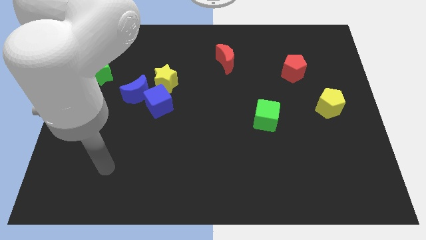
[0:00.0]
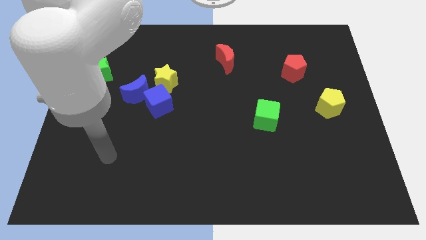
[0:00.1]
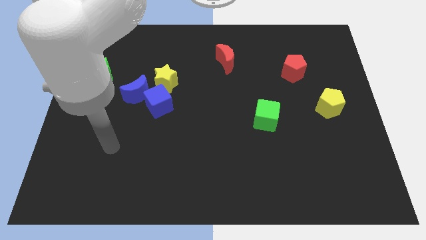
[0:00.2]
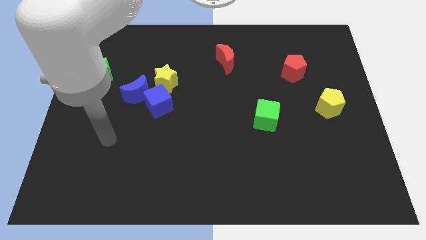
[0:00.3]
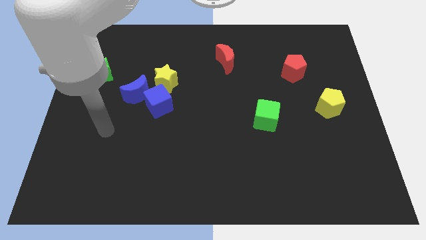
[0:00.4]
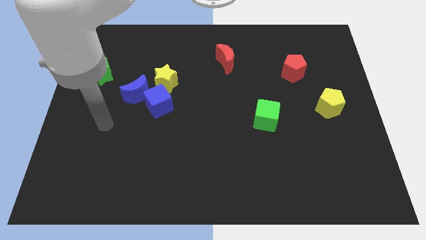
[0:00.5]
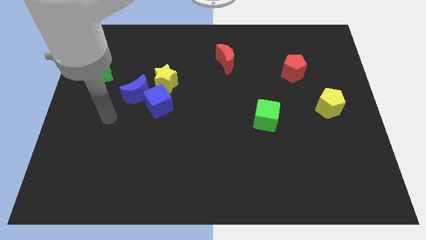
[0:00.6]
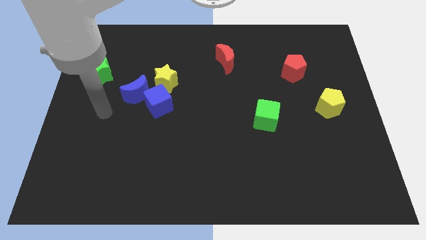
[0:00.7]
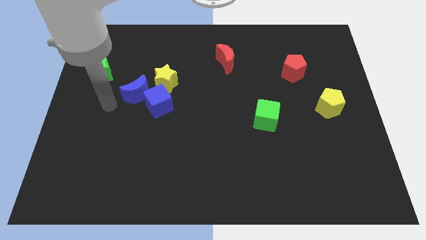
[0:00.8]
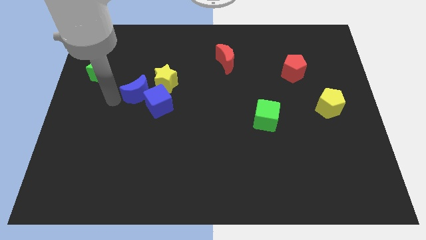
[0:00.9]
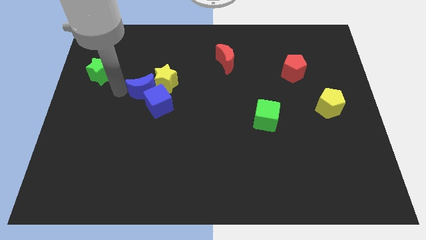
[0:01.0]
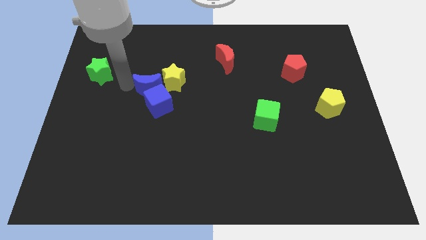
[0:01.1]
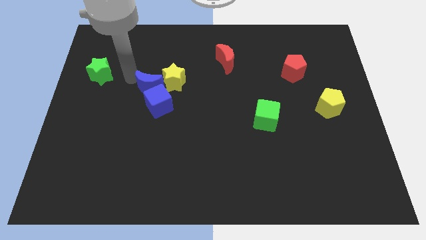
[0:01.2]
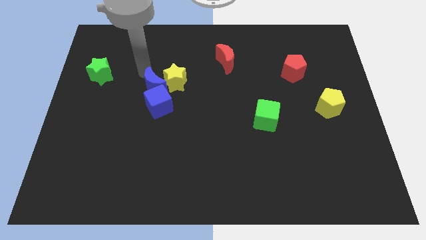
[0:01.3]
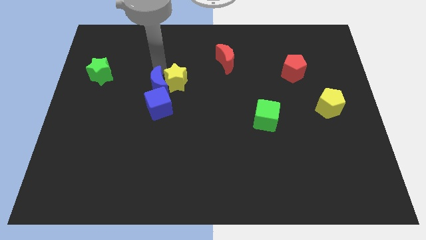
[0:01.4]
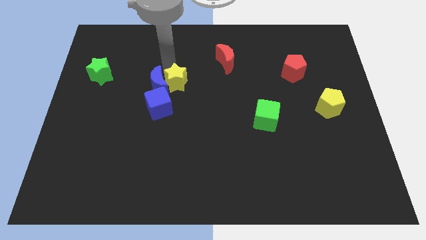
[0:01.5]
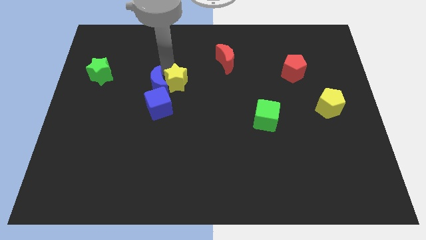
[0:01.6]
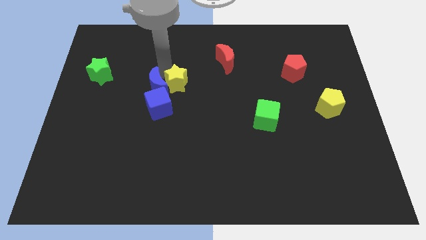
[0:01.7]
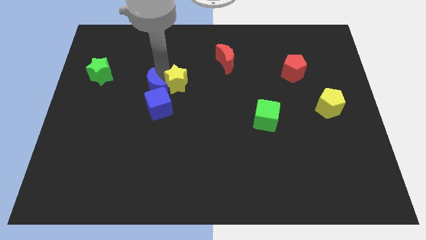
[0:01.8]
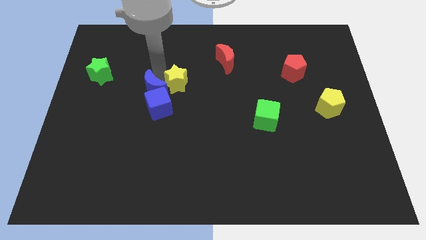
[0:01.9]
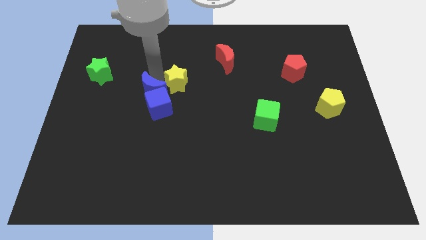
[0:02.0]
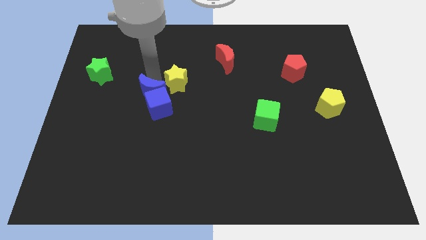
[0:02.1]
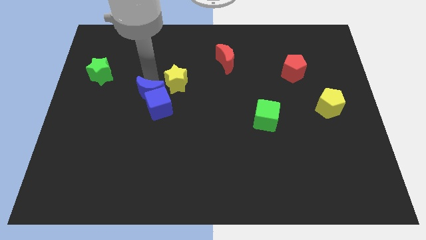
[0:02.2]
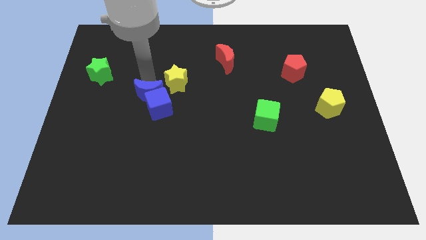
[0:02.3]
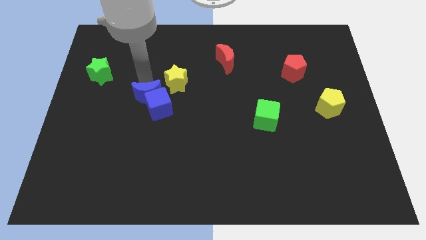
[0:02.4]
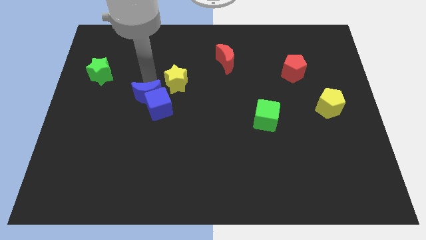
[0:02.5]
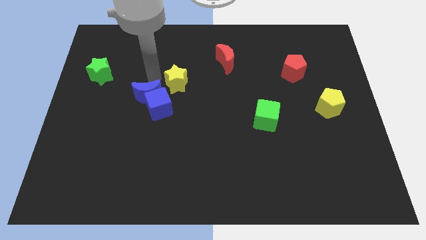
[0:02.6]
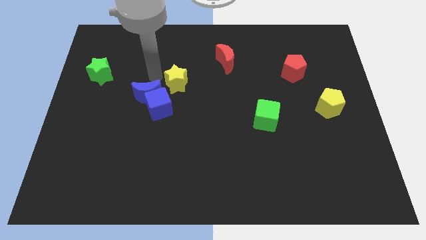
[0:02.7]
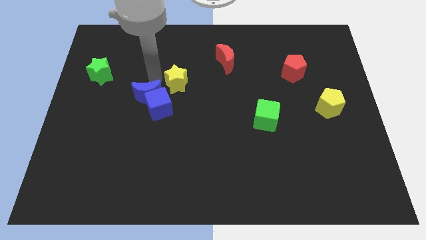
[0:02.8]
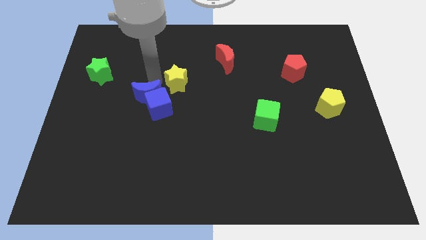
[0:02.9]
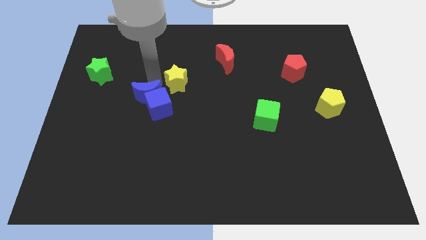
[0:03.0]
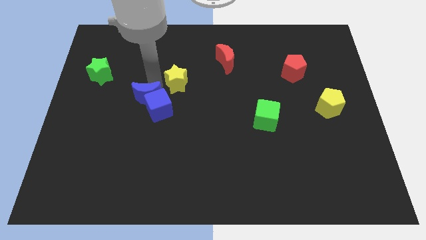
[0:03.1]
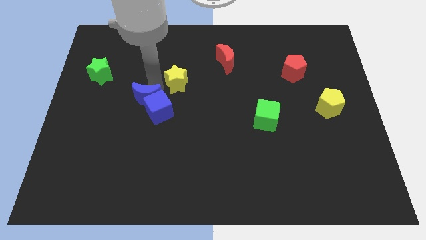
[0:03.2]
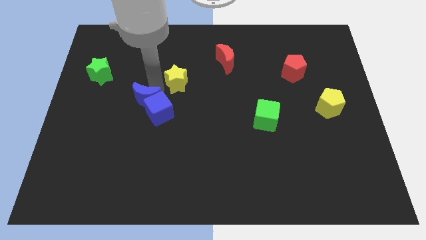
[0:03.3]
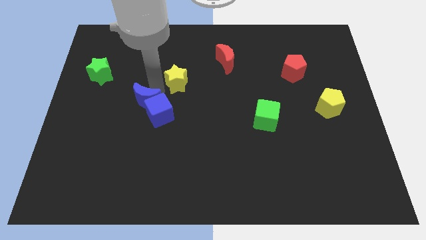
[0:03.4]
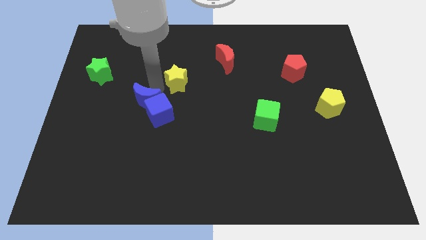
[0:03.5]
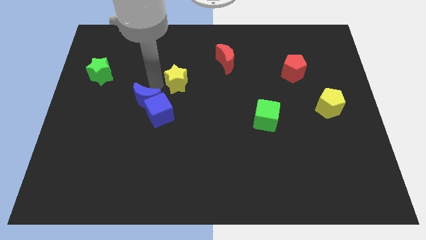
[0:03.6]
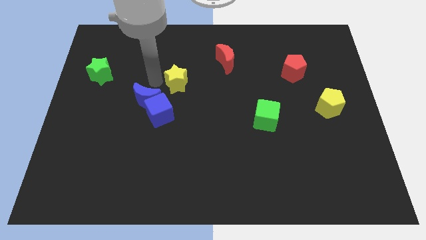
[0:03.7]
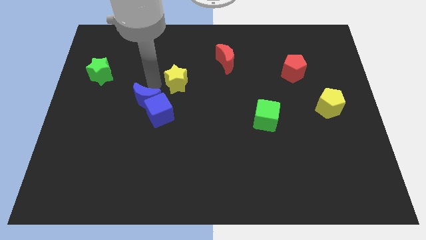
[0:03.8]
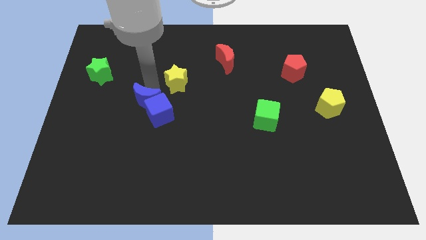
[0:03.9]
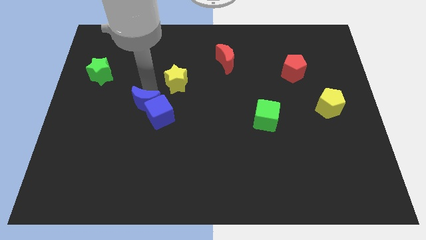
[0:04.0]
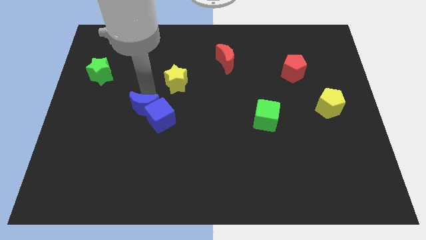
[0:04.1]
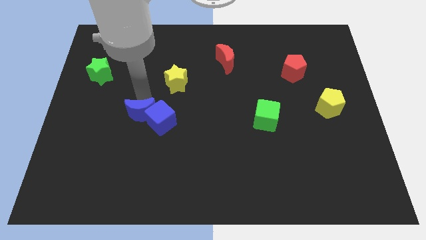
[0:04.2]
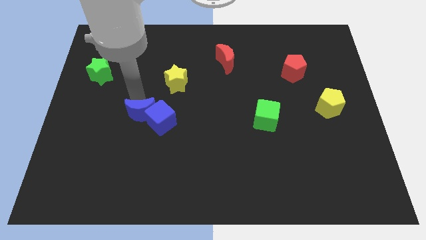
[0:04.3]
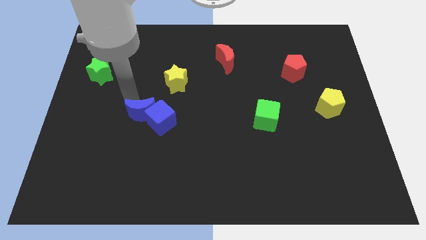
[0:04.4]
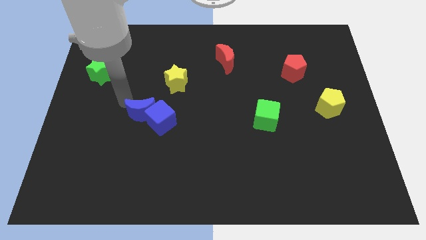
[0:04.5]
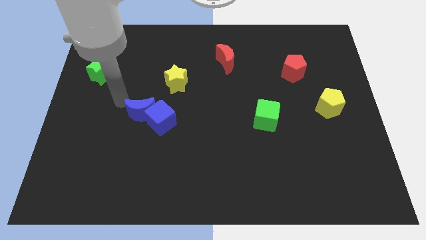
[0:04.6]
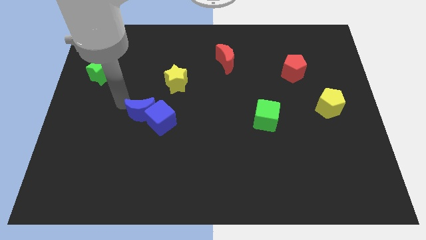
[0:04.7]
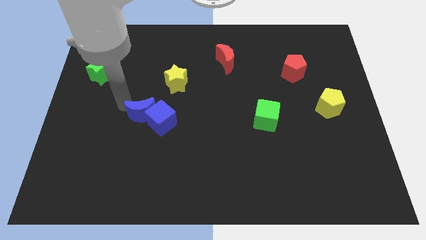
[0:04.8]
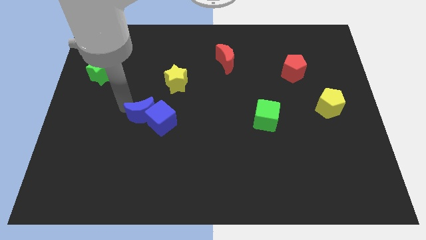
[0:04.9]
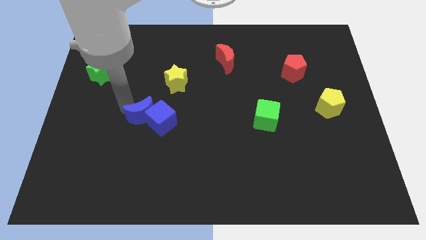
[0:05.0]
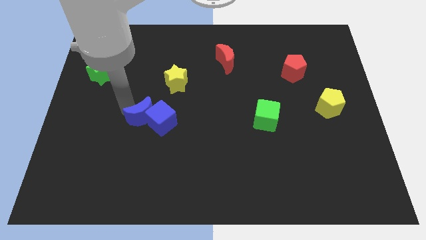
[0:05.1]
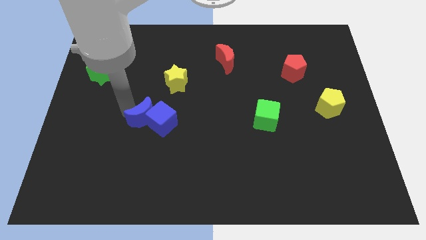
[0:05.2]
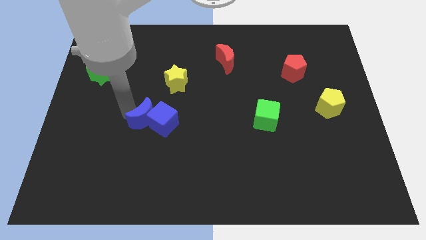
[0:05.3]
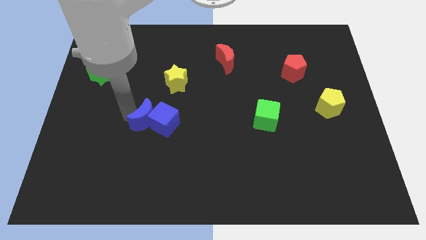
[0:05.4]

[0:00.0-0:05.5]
slide the blue moon a little diagonally downwards and right

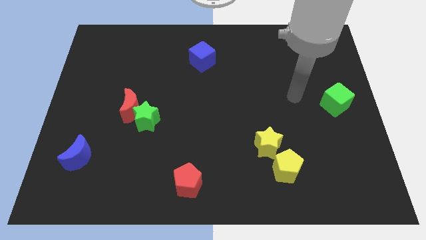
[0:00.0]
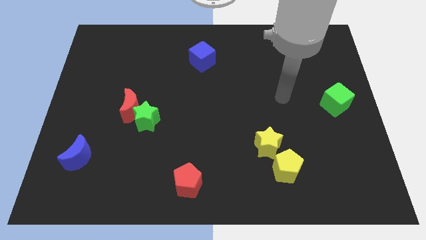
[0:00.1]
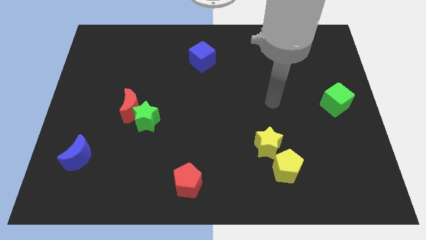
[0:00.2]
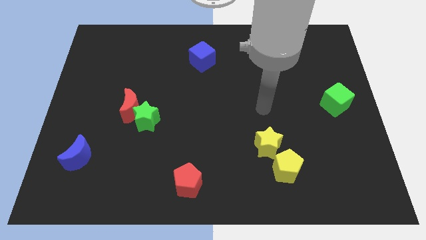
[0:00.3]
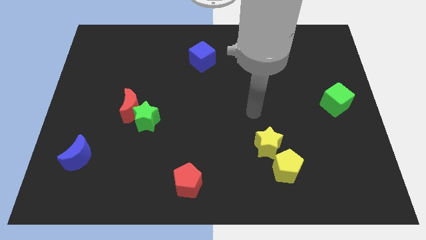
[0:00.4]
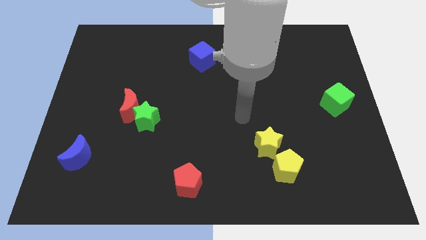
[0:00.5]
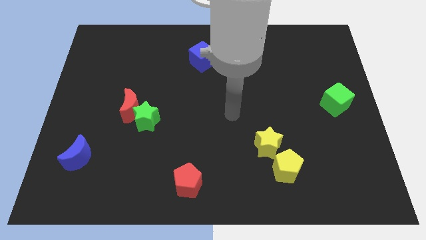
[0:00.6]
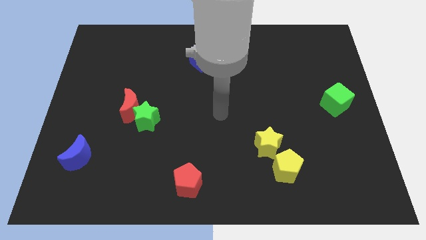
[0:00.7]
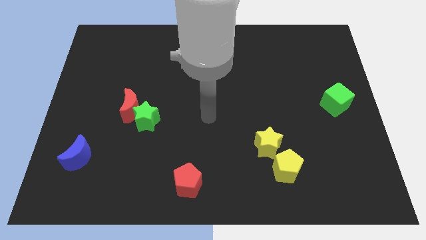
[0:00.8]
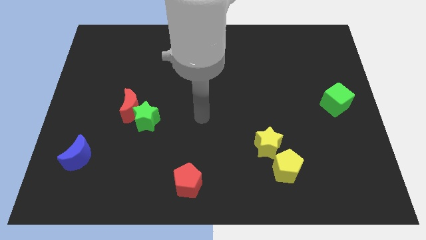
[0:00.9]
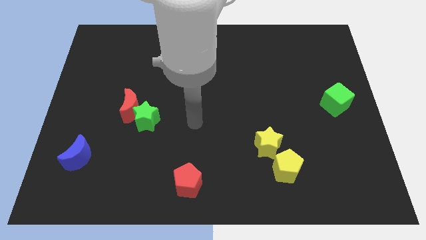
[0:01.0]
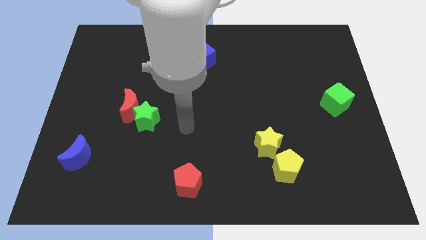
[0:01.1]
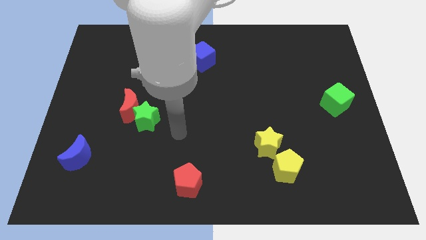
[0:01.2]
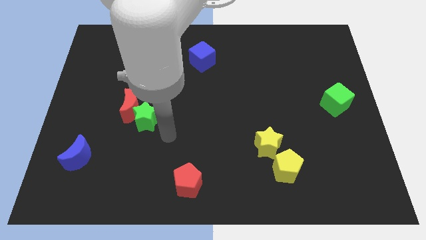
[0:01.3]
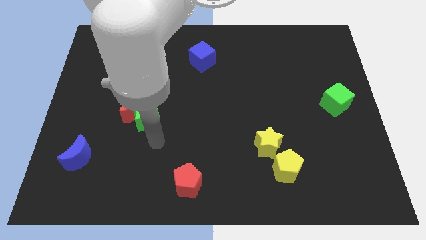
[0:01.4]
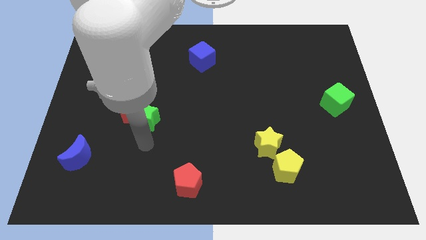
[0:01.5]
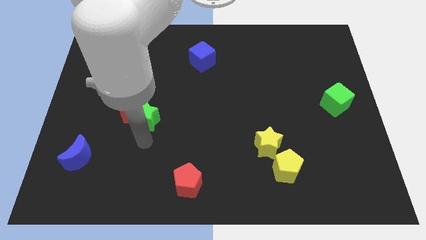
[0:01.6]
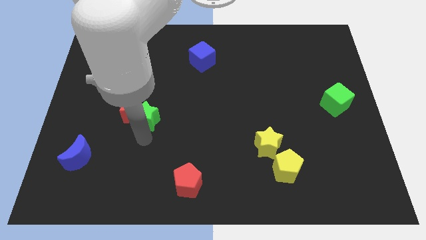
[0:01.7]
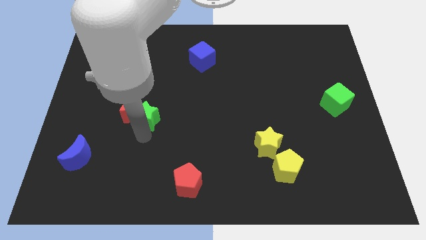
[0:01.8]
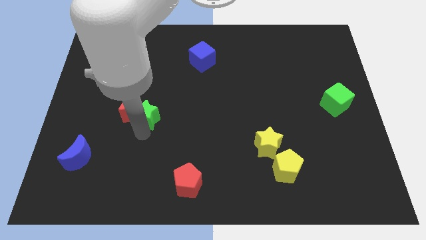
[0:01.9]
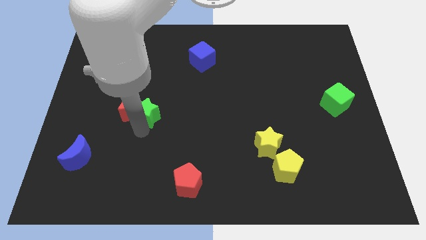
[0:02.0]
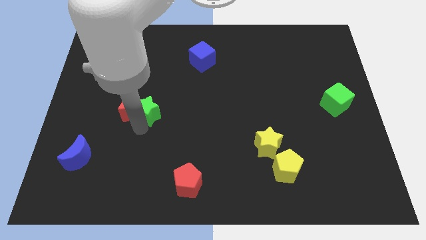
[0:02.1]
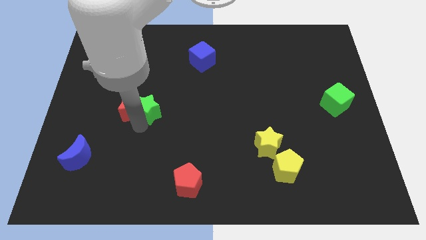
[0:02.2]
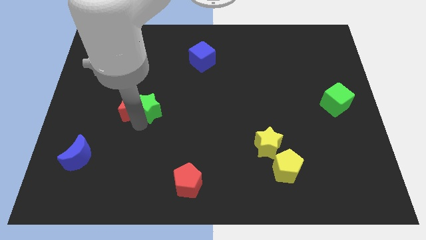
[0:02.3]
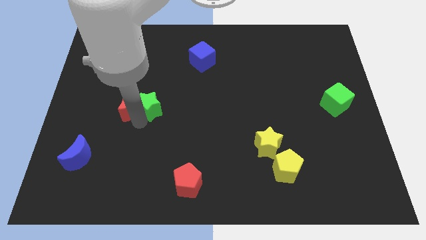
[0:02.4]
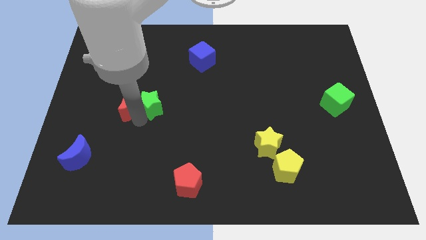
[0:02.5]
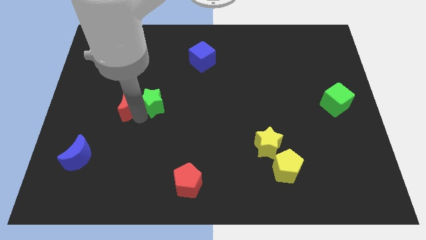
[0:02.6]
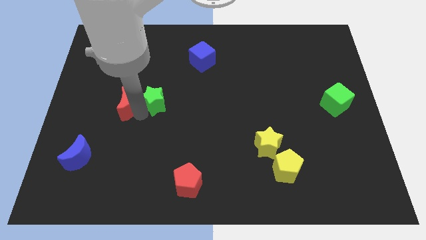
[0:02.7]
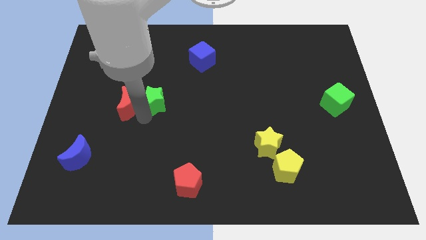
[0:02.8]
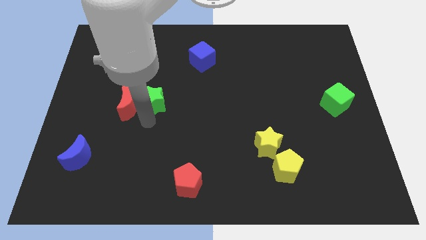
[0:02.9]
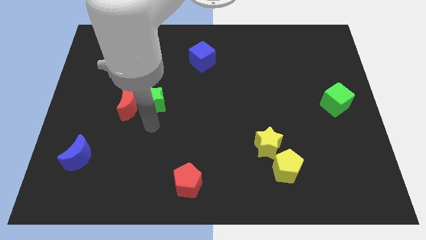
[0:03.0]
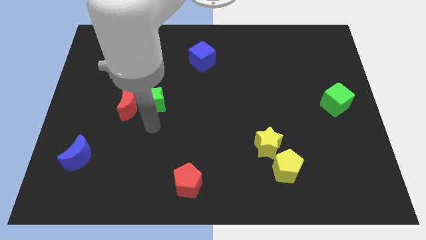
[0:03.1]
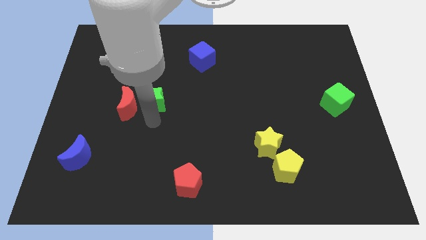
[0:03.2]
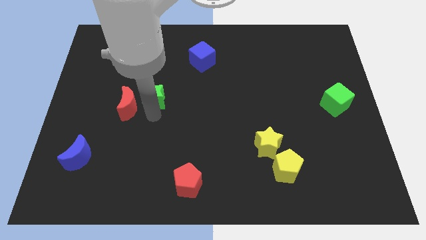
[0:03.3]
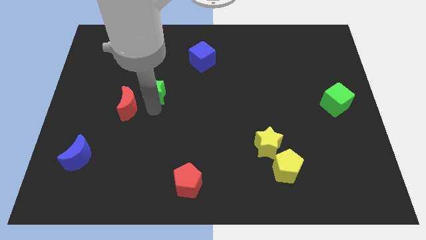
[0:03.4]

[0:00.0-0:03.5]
slightly move the green star up
